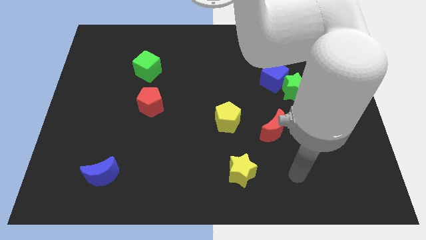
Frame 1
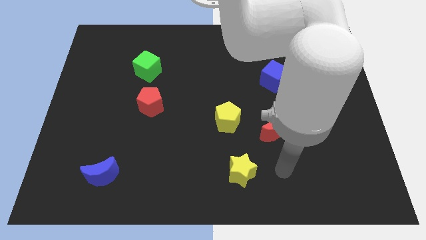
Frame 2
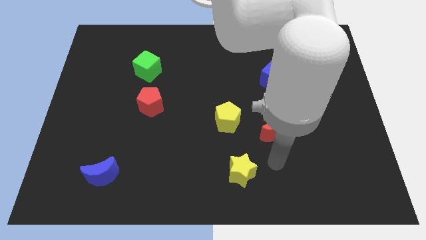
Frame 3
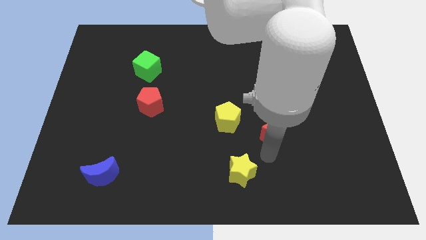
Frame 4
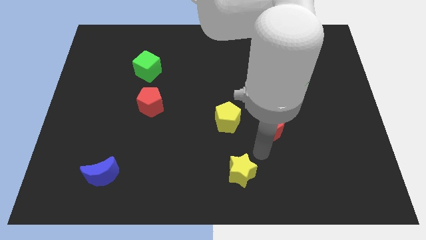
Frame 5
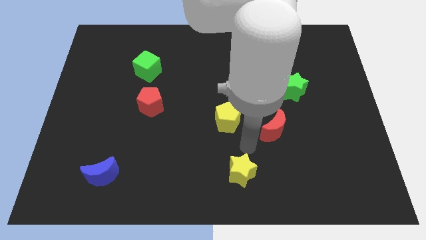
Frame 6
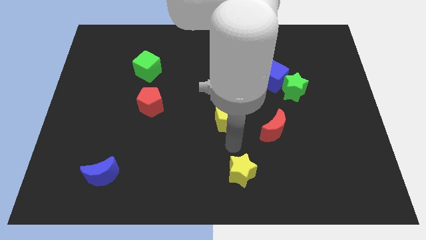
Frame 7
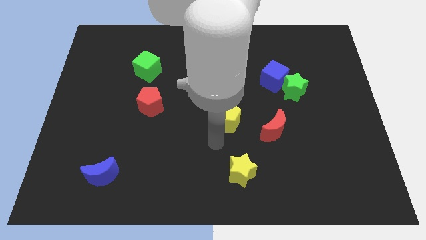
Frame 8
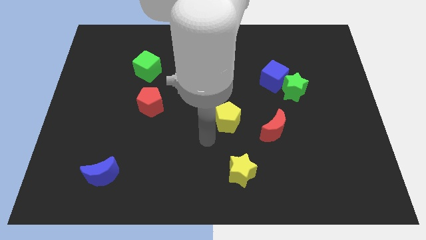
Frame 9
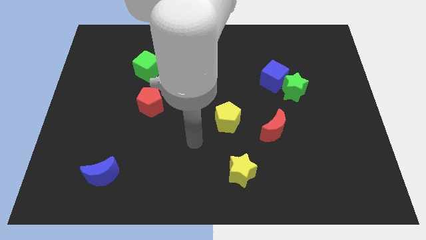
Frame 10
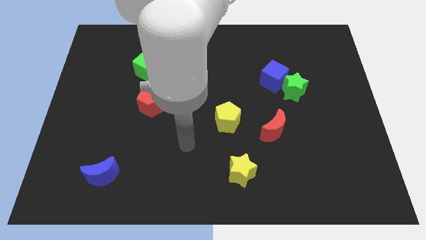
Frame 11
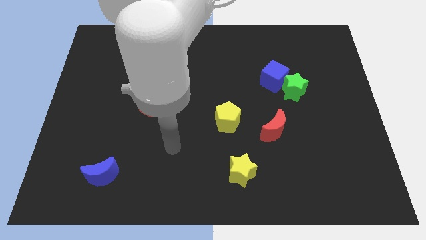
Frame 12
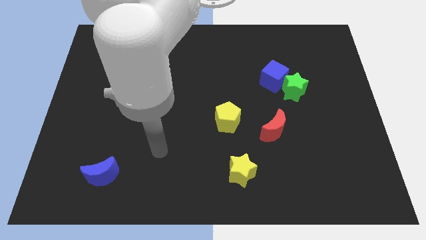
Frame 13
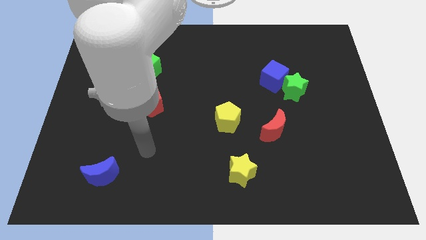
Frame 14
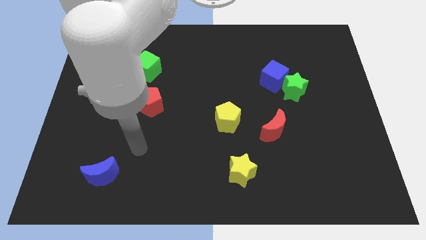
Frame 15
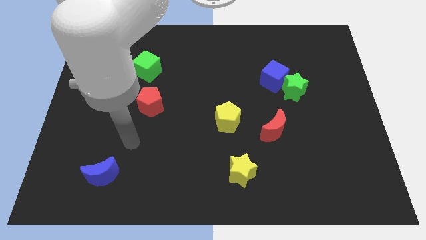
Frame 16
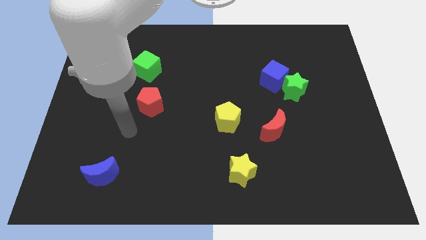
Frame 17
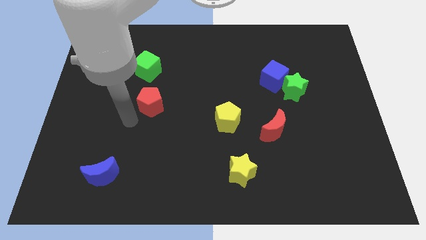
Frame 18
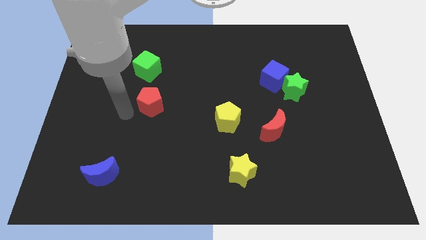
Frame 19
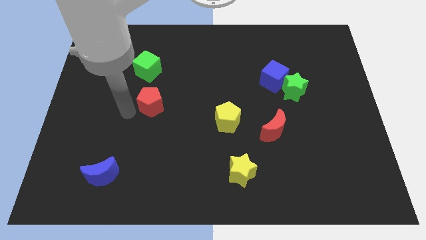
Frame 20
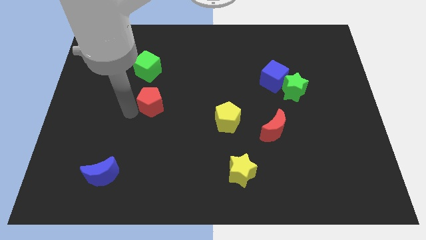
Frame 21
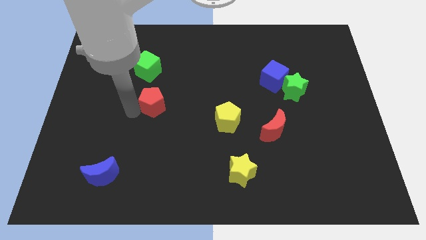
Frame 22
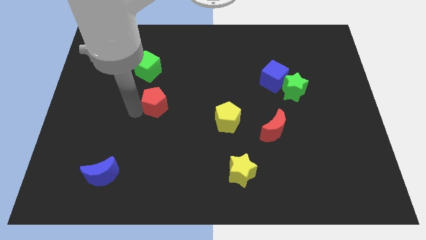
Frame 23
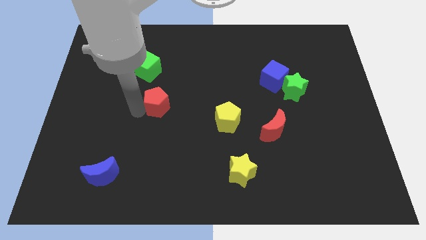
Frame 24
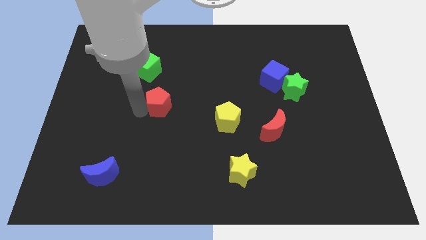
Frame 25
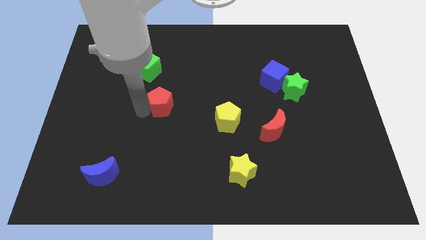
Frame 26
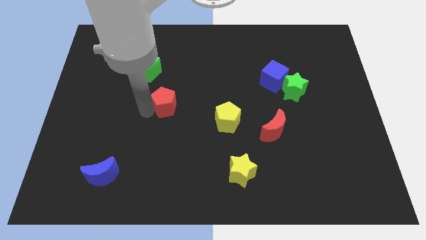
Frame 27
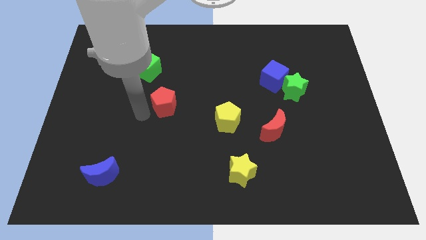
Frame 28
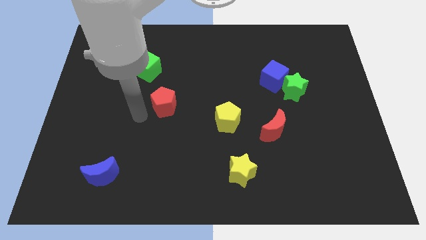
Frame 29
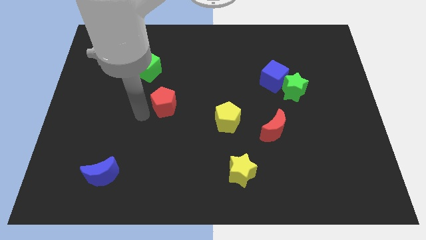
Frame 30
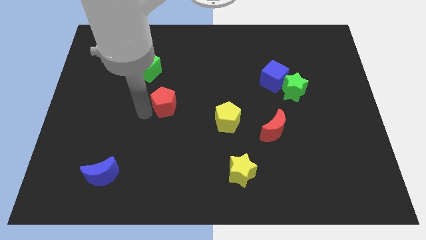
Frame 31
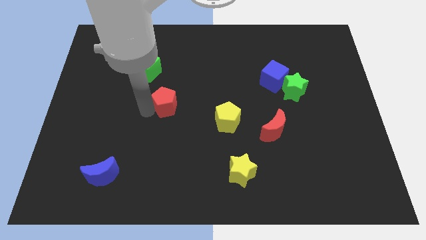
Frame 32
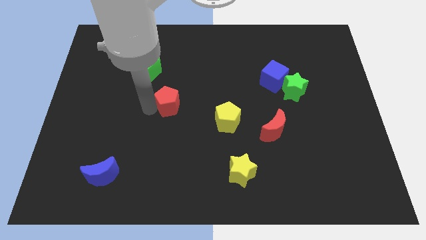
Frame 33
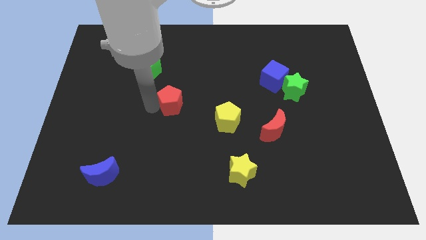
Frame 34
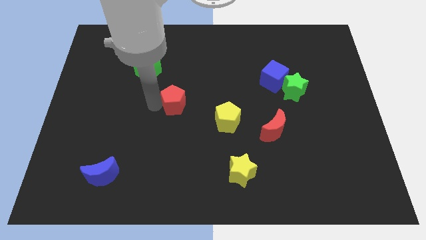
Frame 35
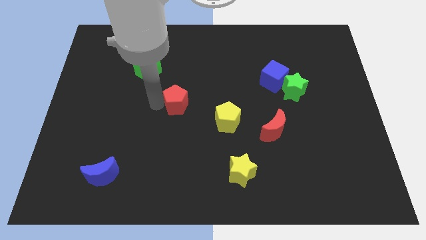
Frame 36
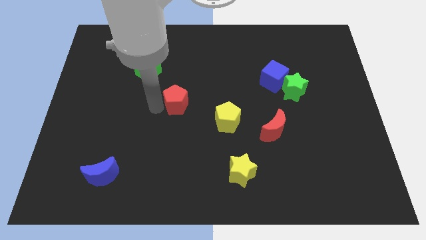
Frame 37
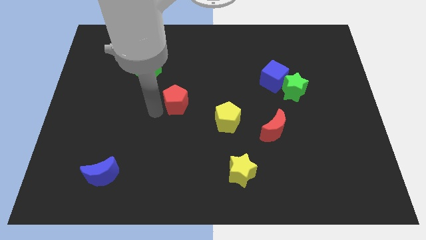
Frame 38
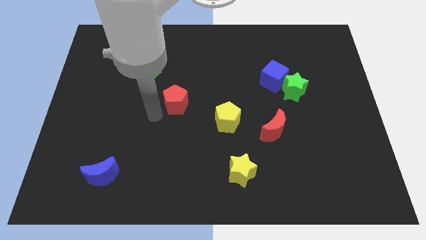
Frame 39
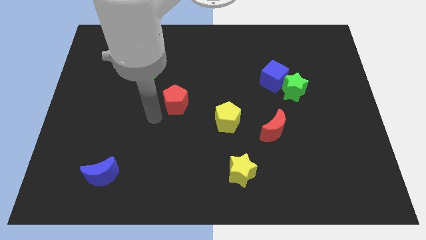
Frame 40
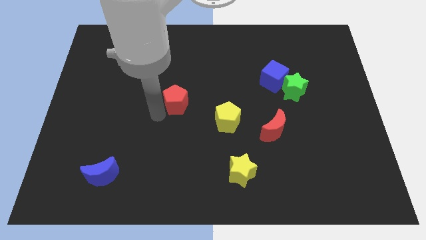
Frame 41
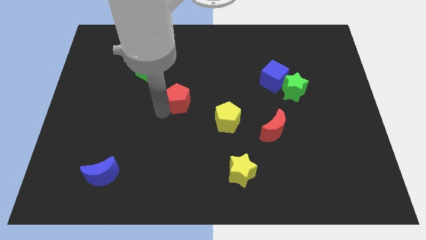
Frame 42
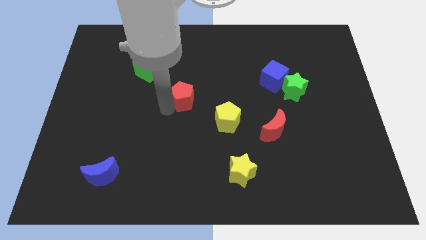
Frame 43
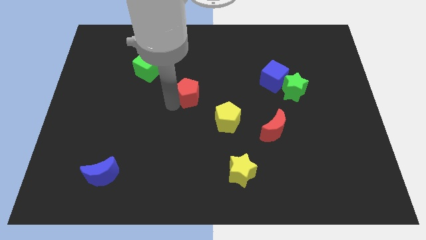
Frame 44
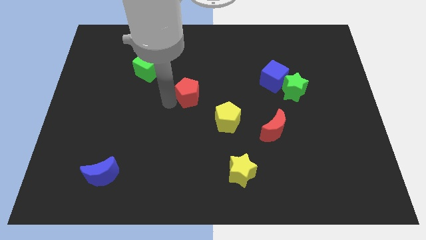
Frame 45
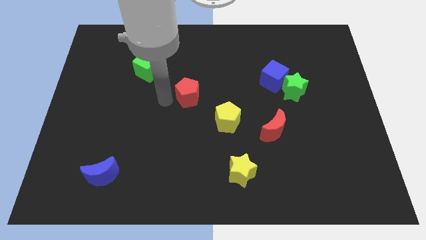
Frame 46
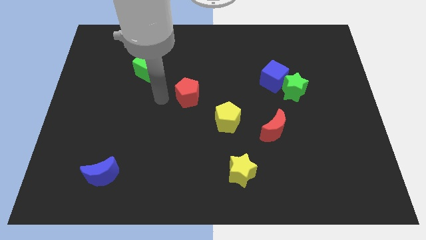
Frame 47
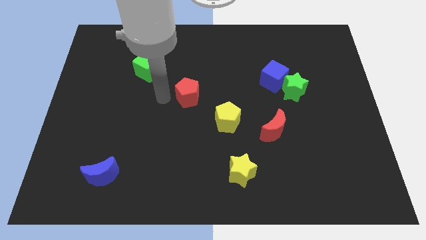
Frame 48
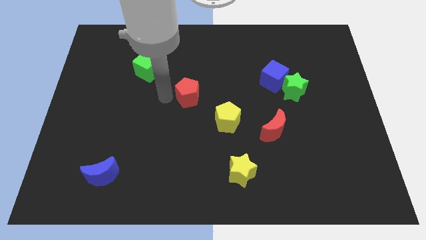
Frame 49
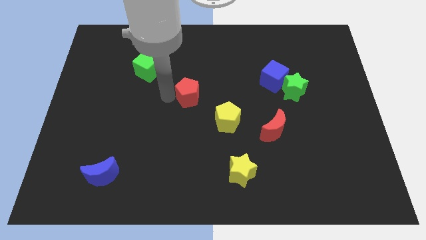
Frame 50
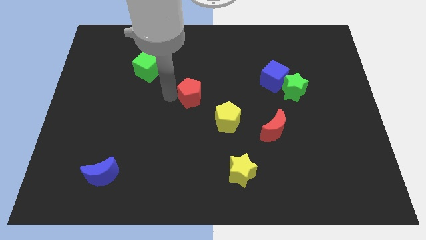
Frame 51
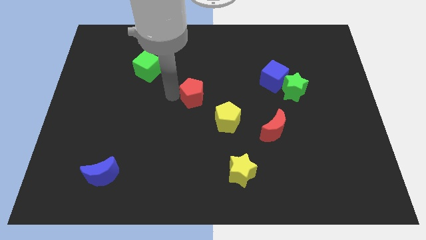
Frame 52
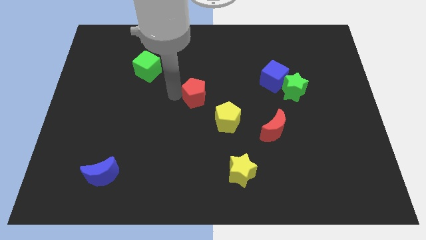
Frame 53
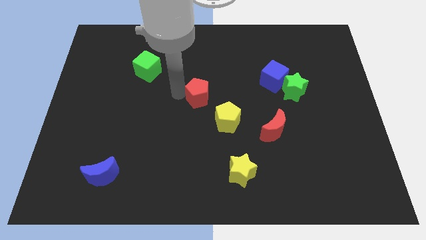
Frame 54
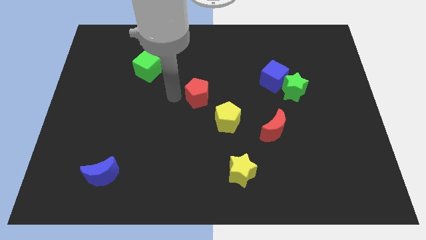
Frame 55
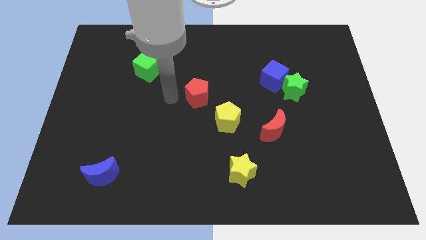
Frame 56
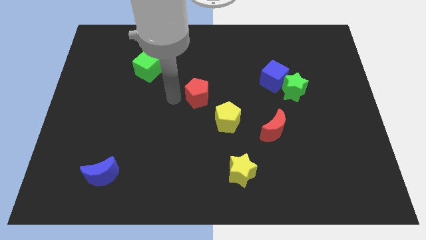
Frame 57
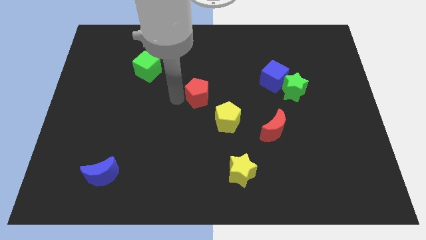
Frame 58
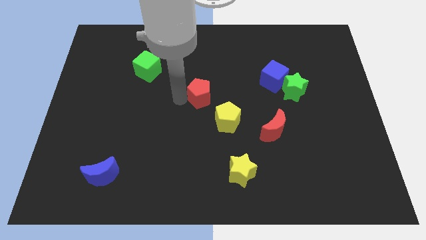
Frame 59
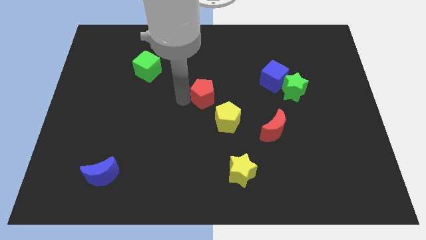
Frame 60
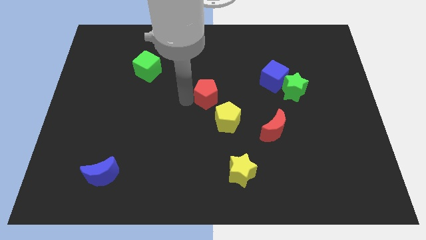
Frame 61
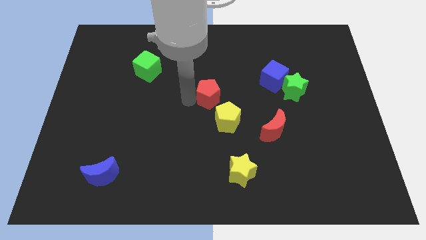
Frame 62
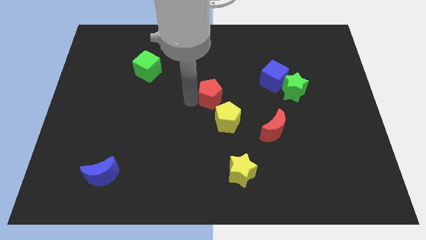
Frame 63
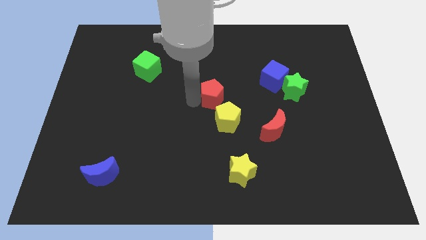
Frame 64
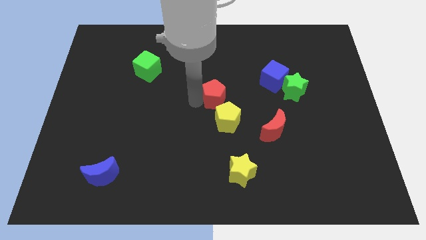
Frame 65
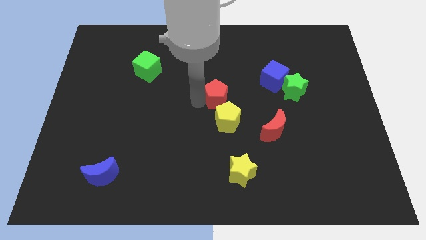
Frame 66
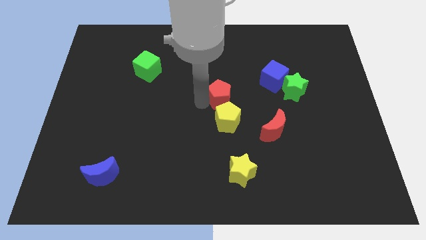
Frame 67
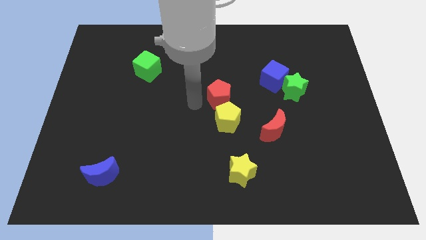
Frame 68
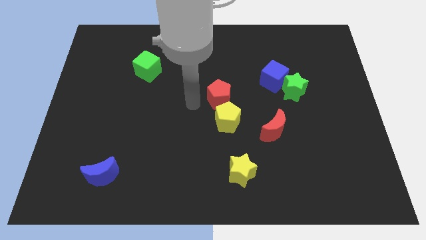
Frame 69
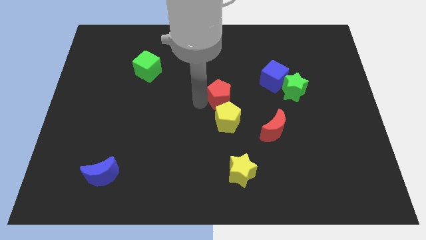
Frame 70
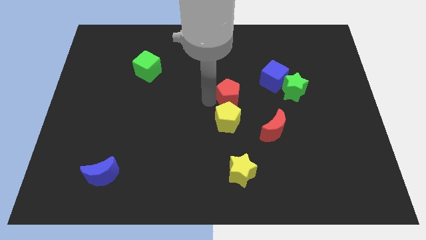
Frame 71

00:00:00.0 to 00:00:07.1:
push the red pentagon to the left of the green star

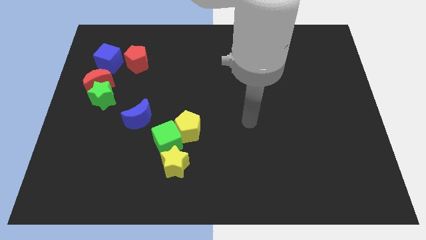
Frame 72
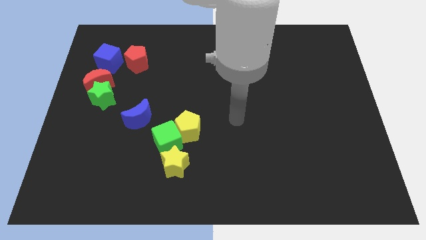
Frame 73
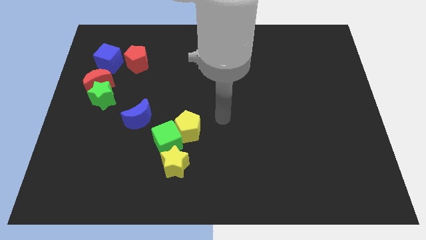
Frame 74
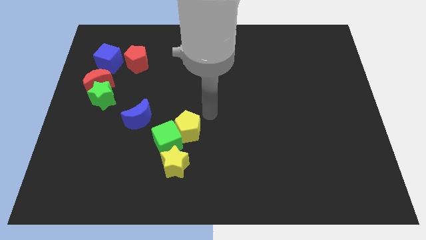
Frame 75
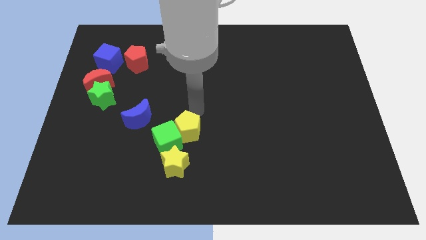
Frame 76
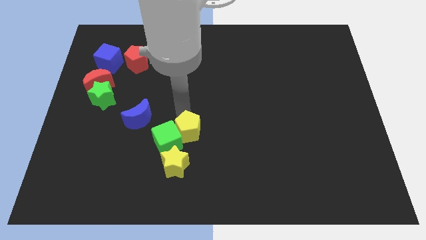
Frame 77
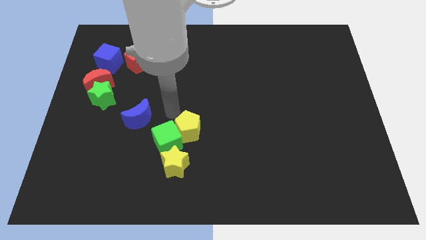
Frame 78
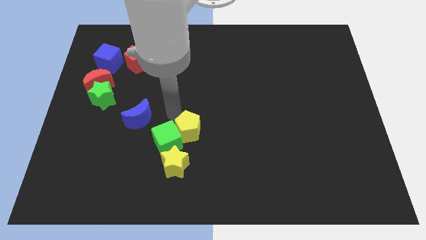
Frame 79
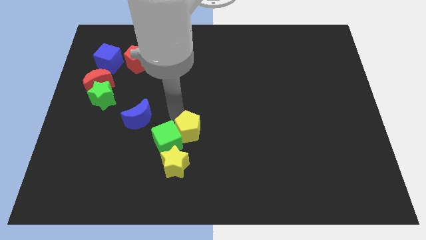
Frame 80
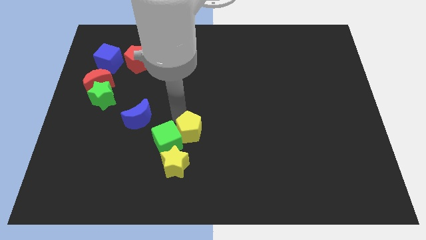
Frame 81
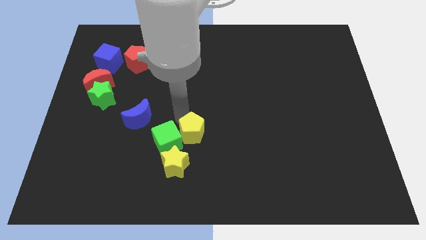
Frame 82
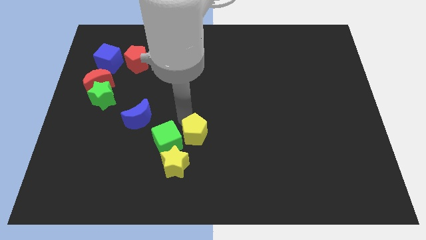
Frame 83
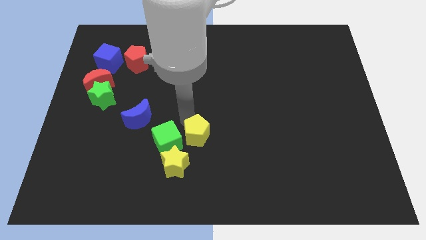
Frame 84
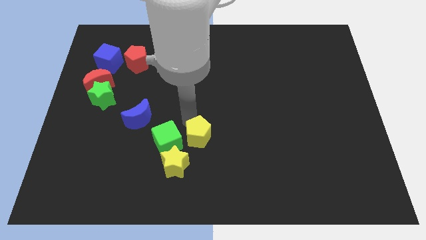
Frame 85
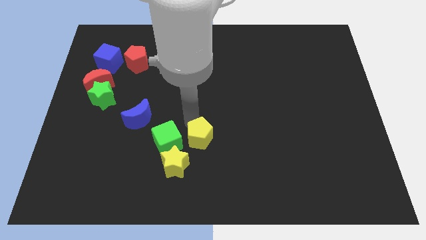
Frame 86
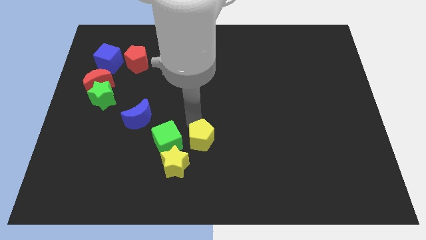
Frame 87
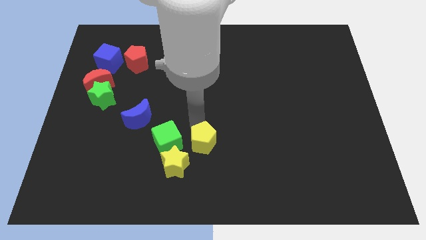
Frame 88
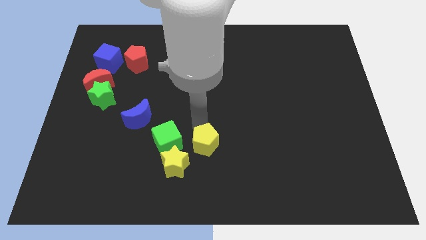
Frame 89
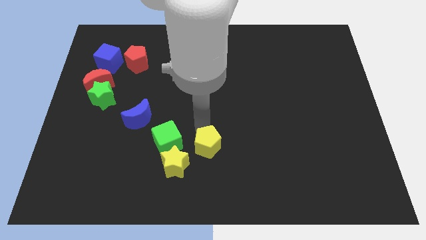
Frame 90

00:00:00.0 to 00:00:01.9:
push the yellow pentagon just right of the yellow star
